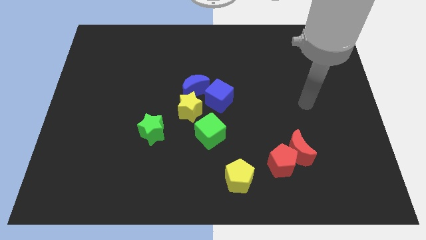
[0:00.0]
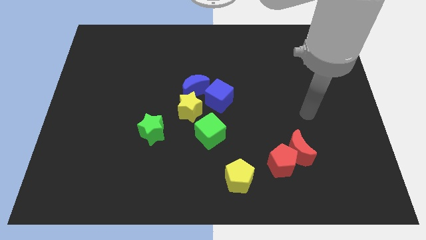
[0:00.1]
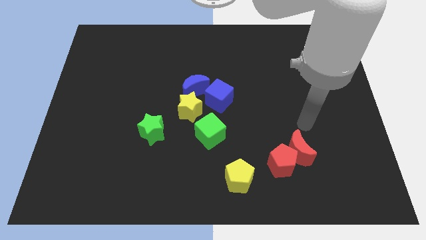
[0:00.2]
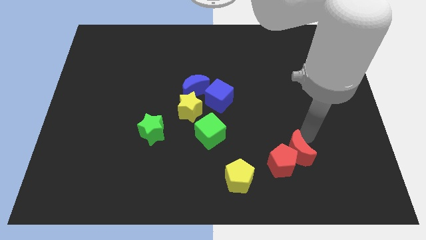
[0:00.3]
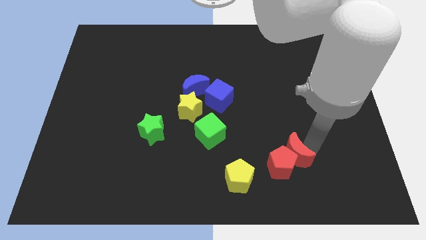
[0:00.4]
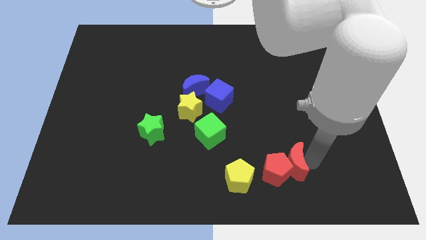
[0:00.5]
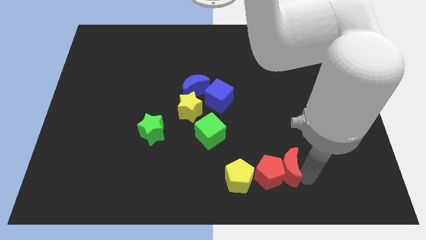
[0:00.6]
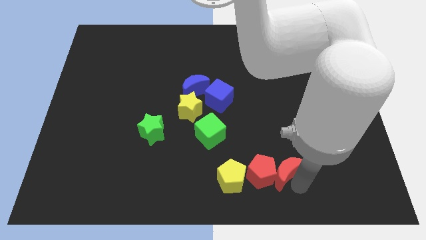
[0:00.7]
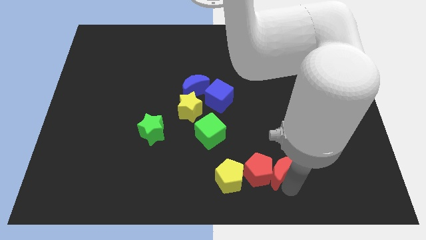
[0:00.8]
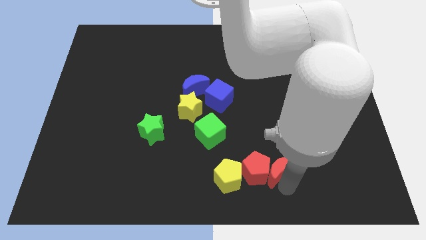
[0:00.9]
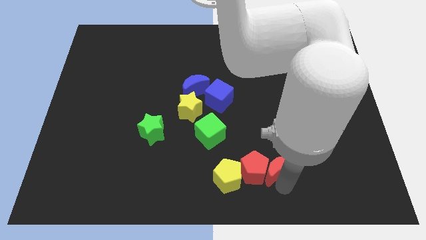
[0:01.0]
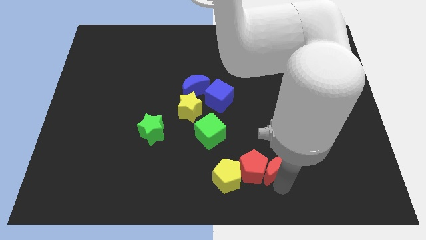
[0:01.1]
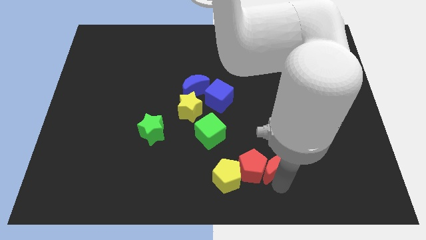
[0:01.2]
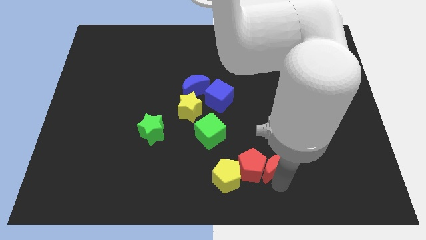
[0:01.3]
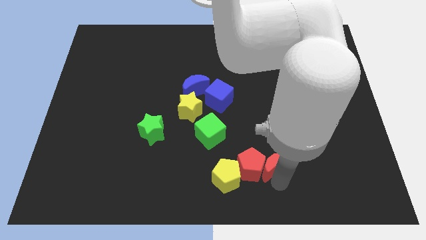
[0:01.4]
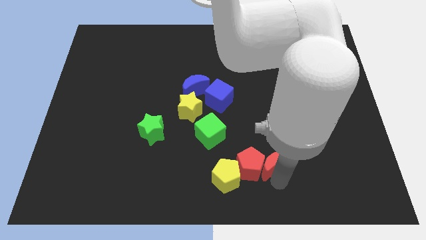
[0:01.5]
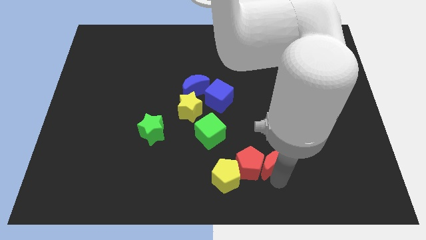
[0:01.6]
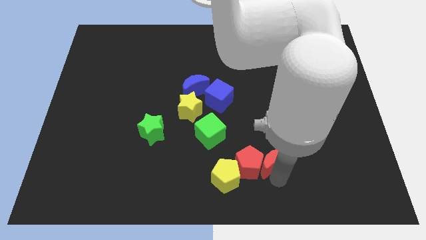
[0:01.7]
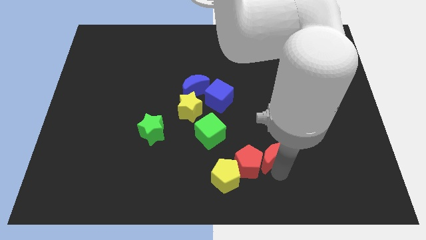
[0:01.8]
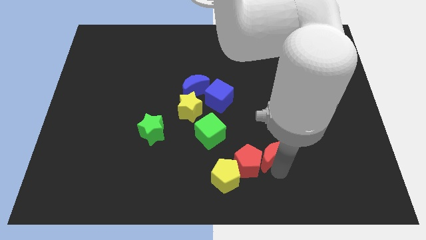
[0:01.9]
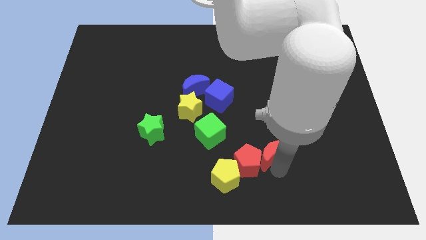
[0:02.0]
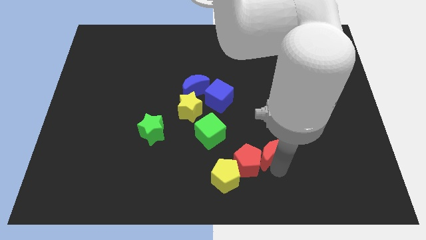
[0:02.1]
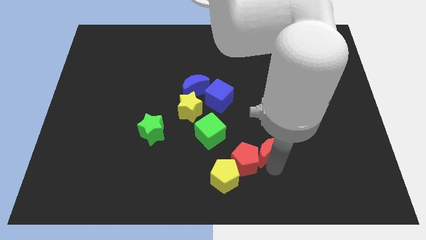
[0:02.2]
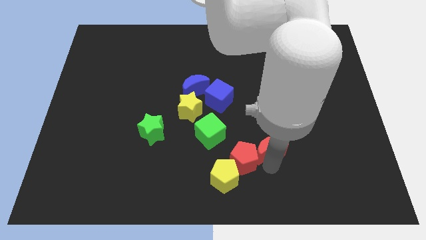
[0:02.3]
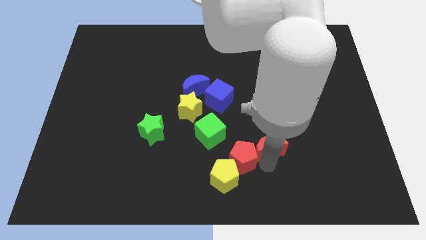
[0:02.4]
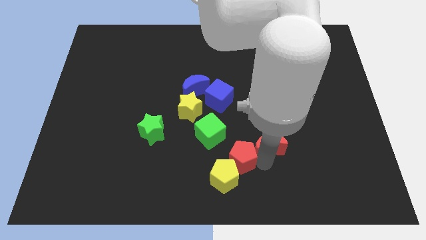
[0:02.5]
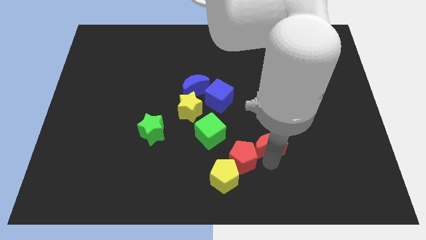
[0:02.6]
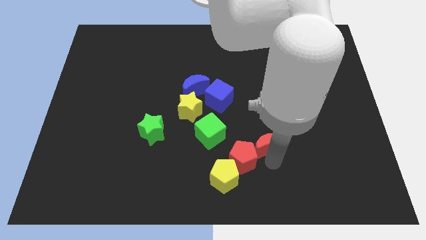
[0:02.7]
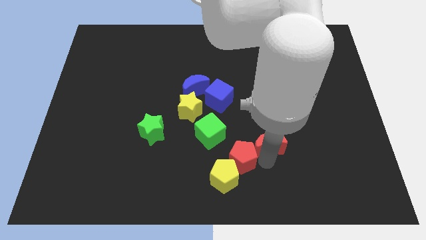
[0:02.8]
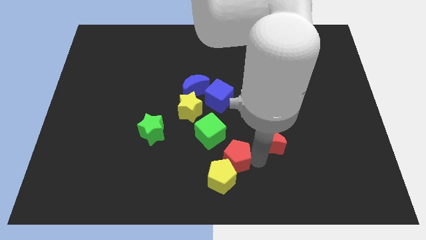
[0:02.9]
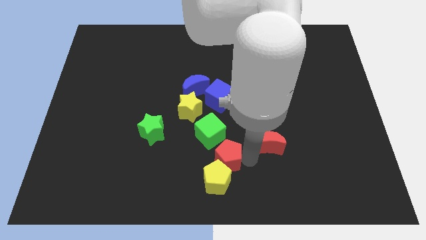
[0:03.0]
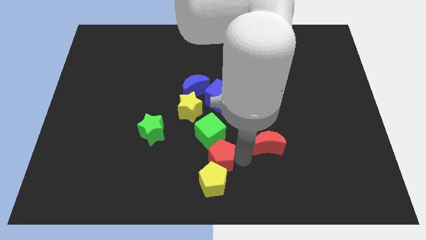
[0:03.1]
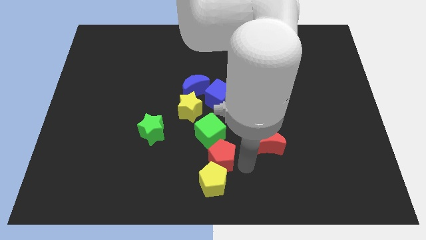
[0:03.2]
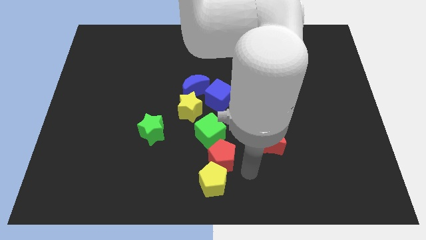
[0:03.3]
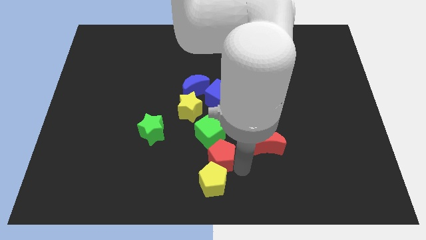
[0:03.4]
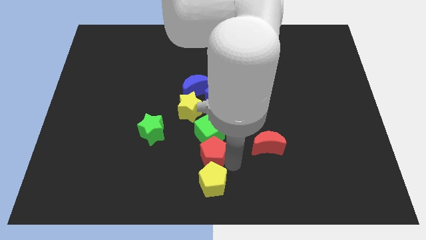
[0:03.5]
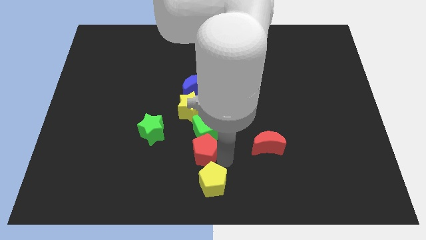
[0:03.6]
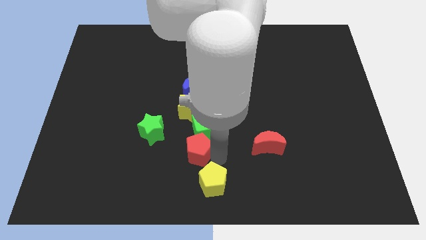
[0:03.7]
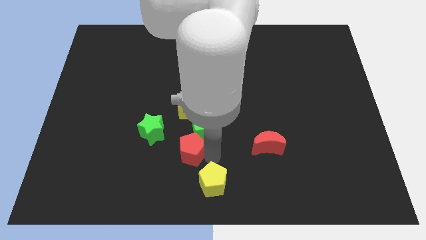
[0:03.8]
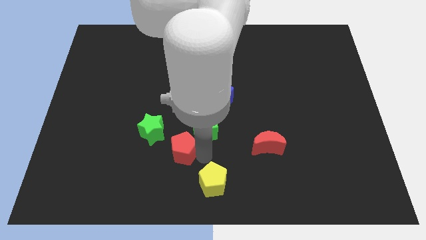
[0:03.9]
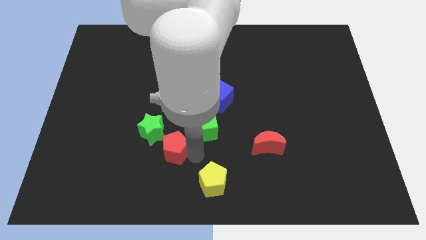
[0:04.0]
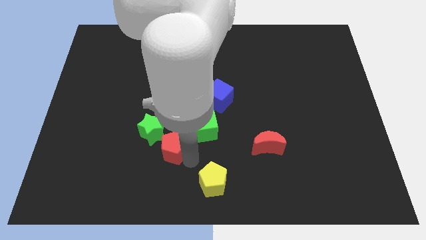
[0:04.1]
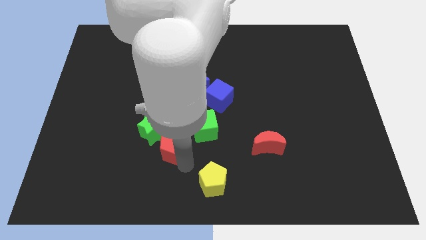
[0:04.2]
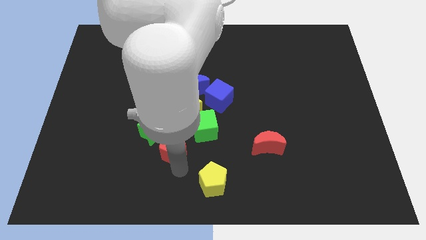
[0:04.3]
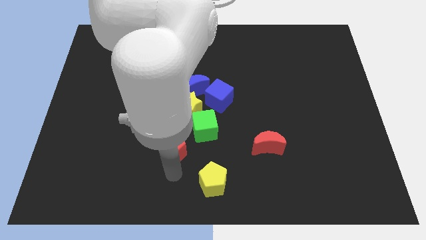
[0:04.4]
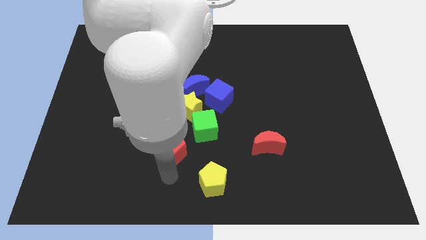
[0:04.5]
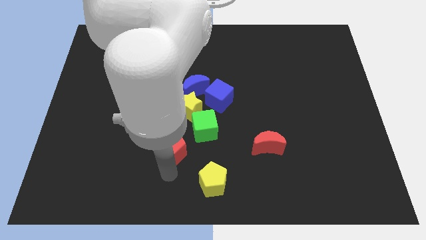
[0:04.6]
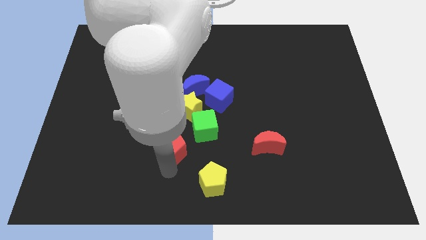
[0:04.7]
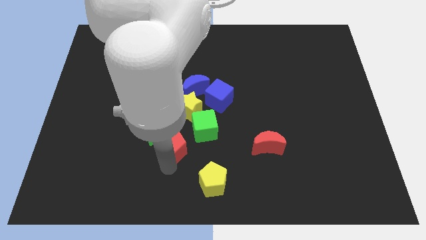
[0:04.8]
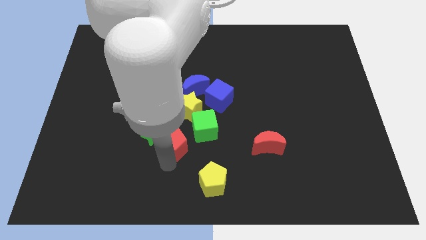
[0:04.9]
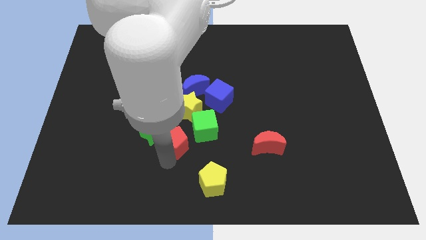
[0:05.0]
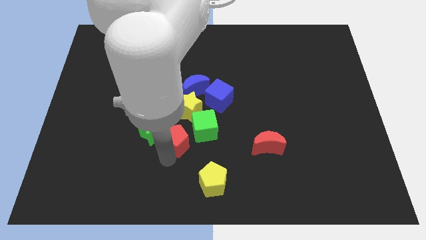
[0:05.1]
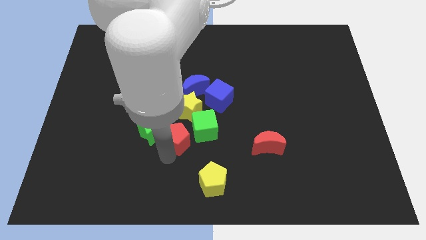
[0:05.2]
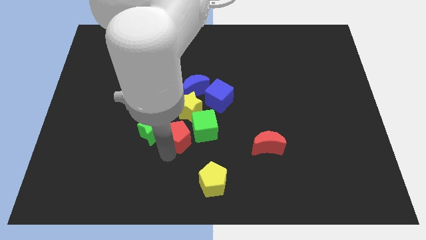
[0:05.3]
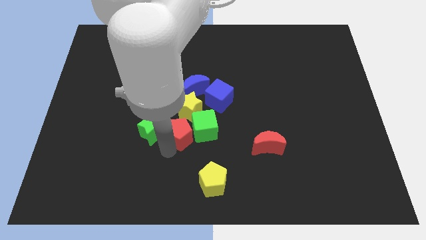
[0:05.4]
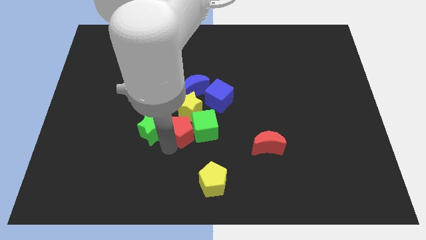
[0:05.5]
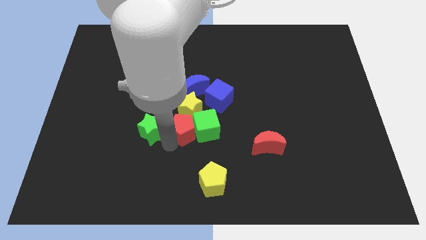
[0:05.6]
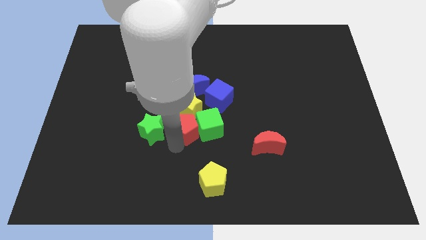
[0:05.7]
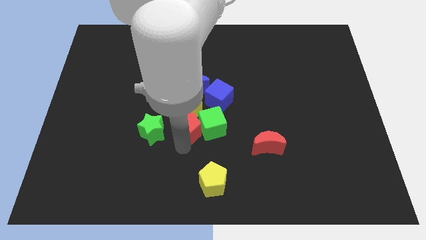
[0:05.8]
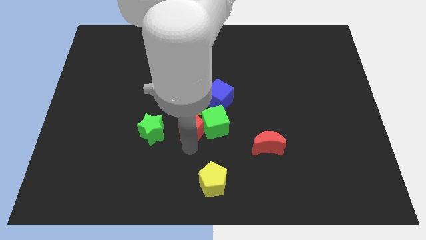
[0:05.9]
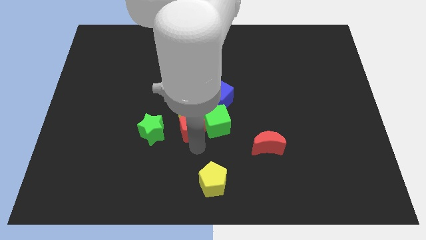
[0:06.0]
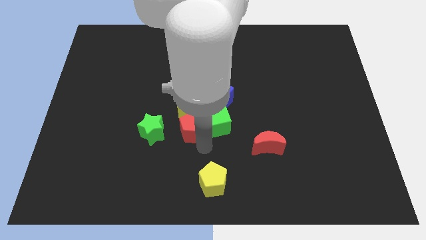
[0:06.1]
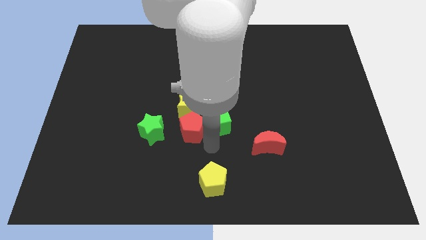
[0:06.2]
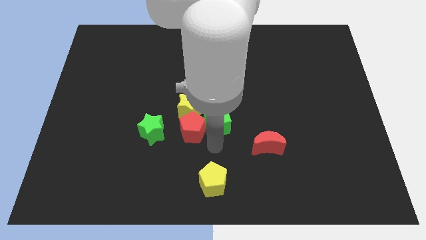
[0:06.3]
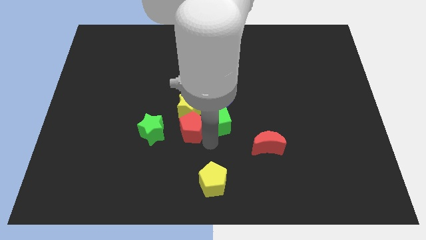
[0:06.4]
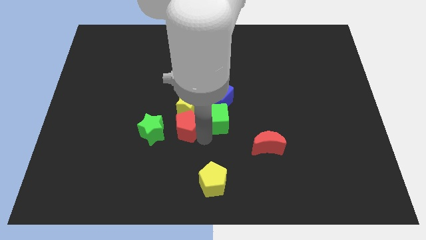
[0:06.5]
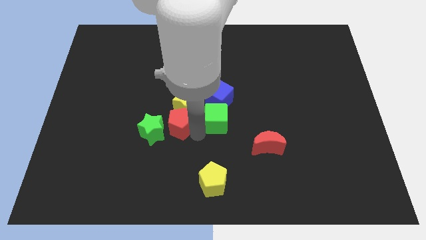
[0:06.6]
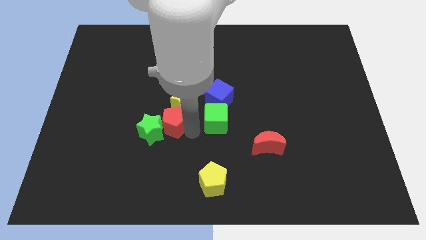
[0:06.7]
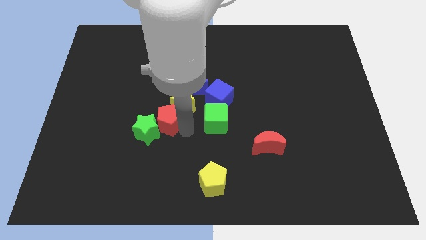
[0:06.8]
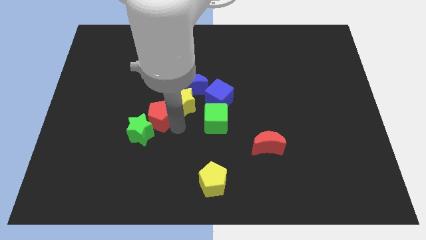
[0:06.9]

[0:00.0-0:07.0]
move the red pentagon to the top of the green star
